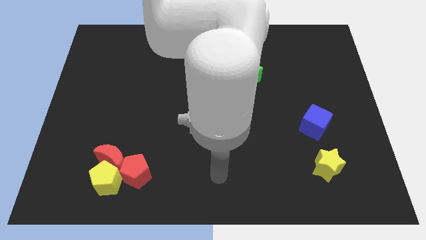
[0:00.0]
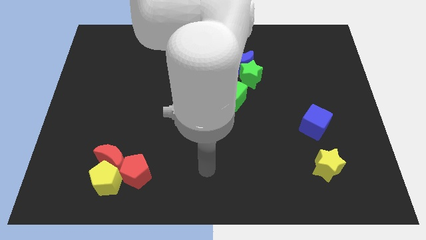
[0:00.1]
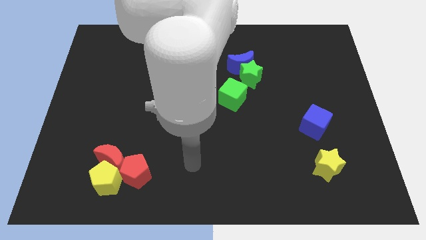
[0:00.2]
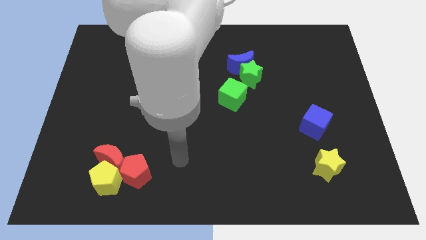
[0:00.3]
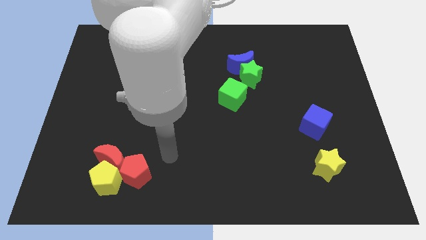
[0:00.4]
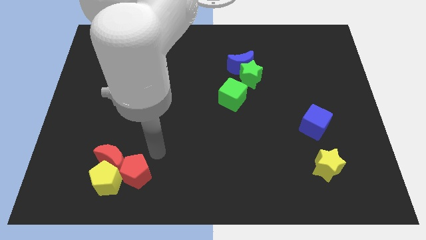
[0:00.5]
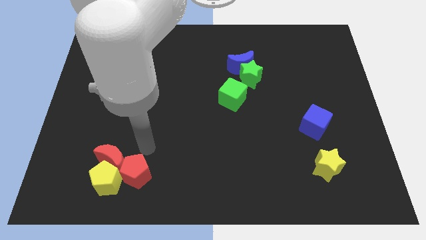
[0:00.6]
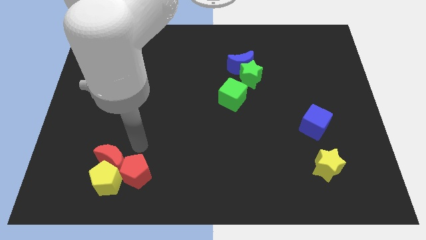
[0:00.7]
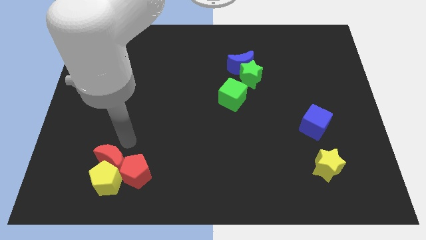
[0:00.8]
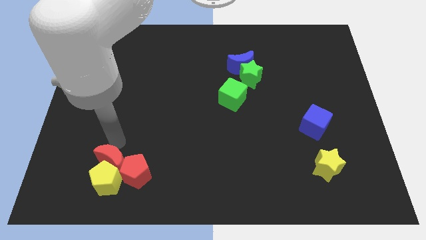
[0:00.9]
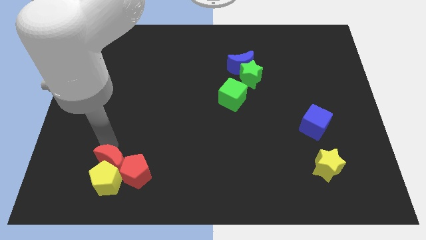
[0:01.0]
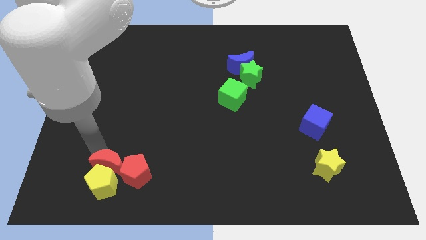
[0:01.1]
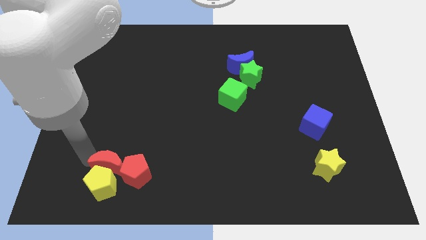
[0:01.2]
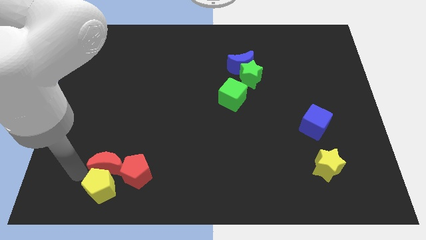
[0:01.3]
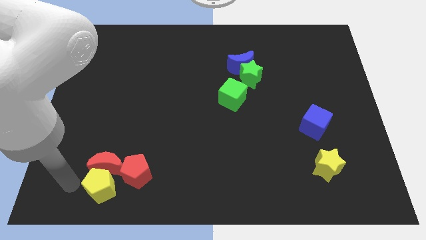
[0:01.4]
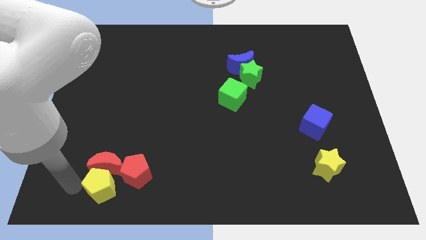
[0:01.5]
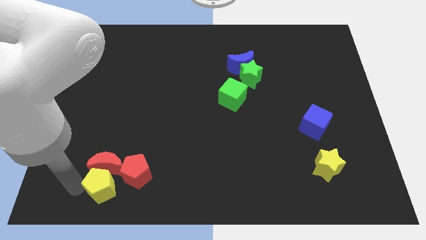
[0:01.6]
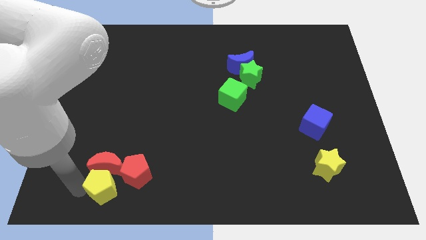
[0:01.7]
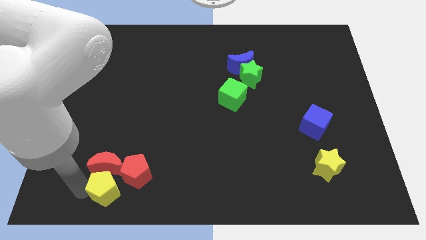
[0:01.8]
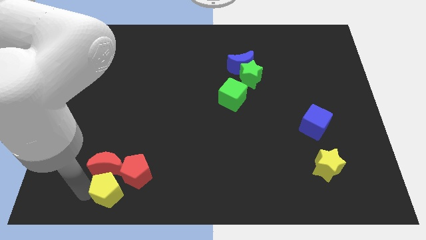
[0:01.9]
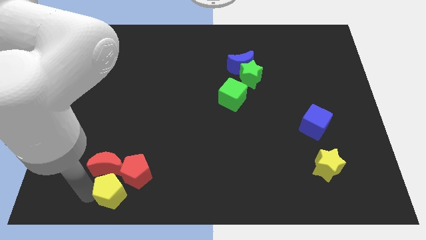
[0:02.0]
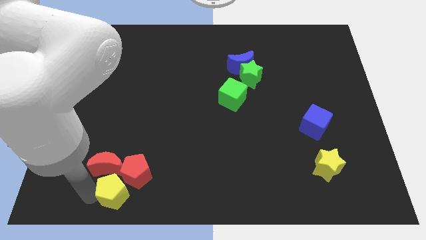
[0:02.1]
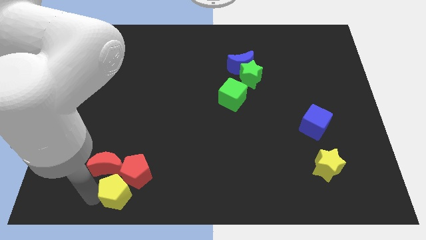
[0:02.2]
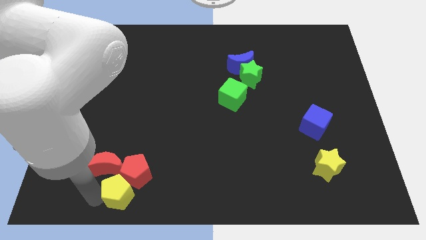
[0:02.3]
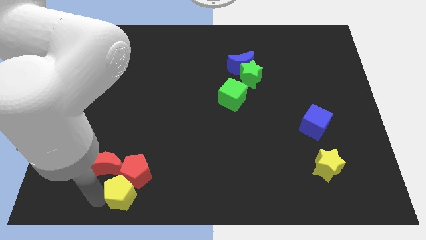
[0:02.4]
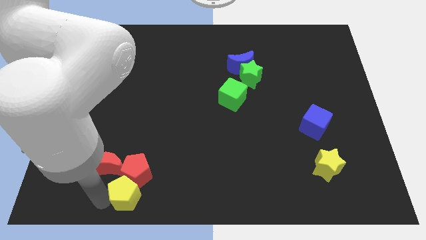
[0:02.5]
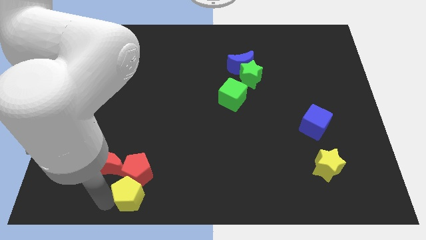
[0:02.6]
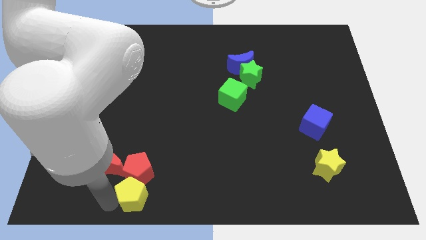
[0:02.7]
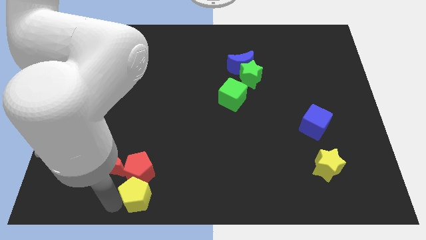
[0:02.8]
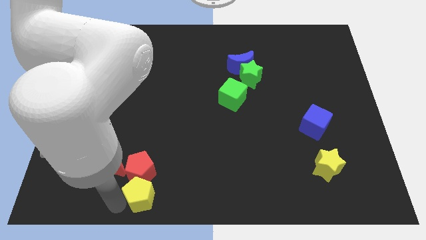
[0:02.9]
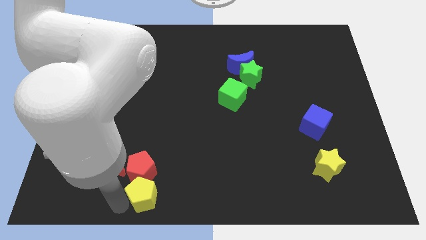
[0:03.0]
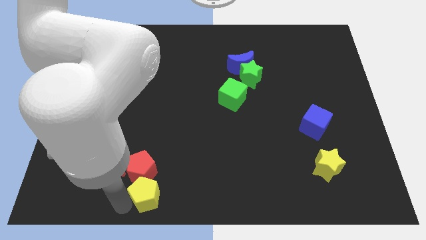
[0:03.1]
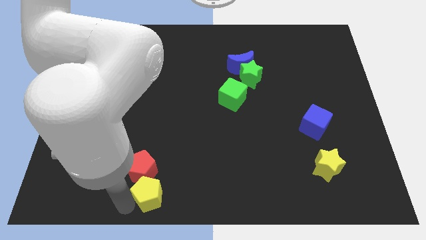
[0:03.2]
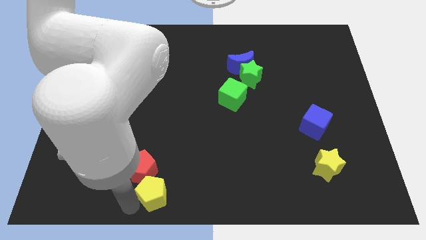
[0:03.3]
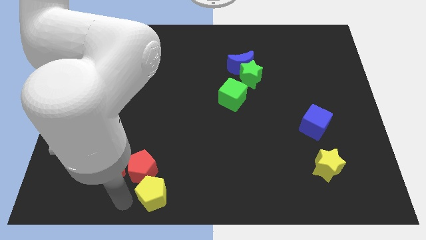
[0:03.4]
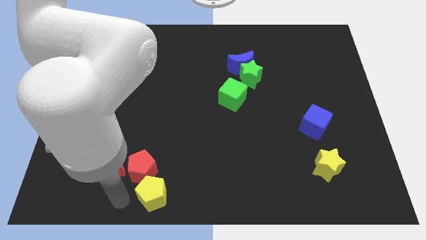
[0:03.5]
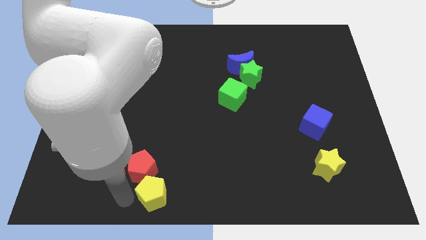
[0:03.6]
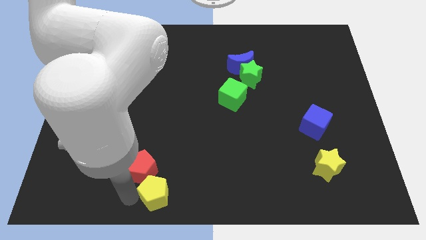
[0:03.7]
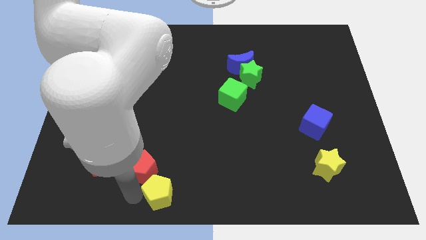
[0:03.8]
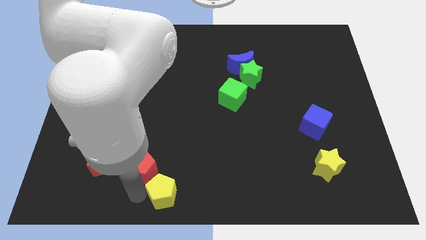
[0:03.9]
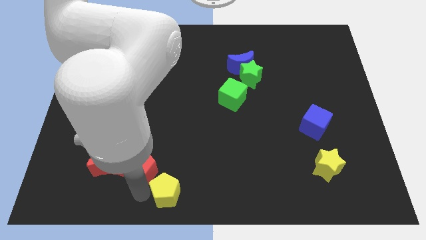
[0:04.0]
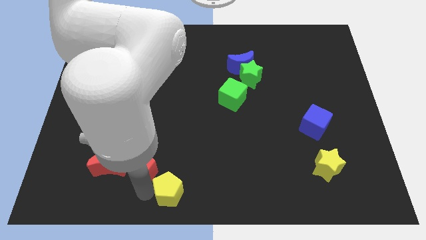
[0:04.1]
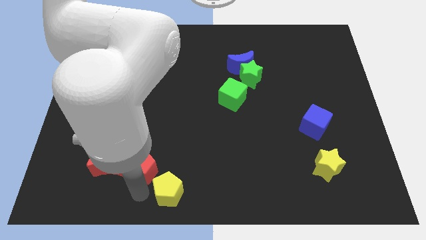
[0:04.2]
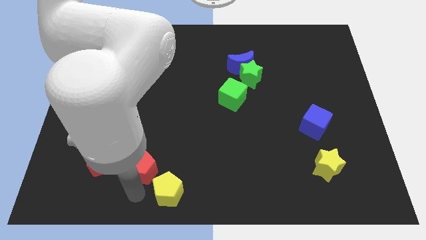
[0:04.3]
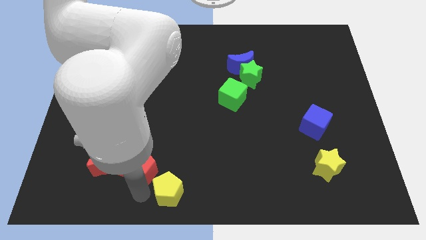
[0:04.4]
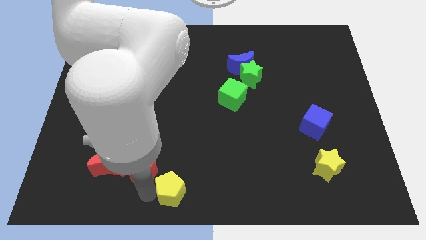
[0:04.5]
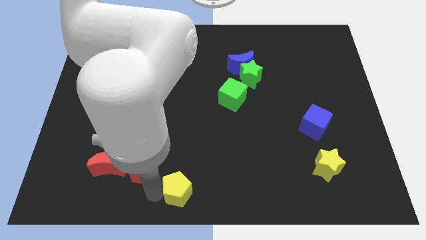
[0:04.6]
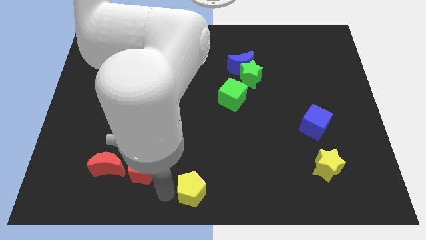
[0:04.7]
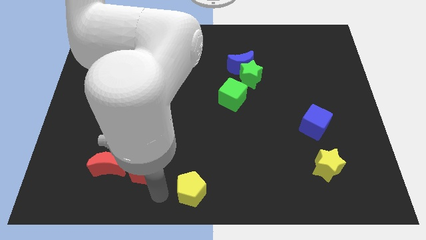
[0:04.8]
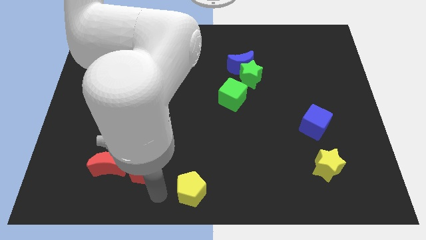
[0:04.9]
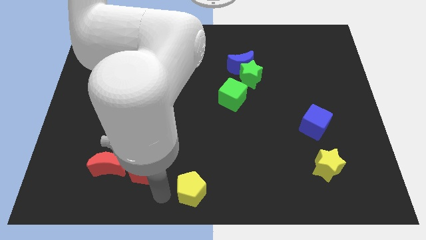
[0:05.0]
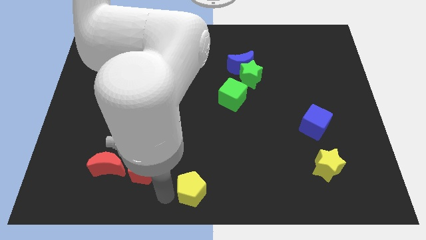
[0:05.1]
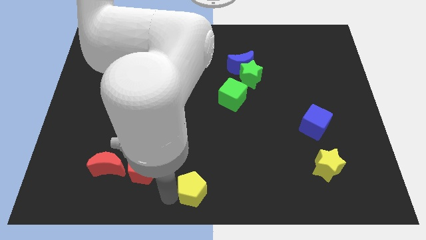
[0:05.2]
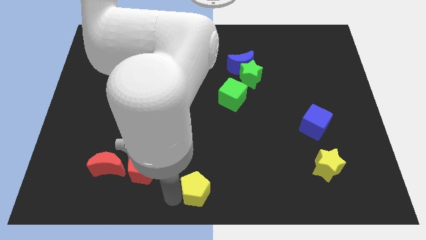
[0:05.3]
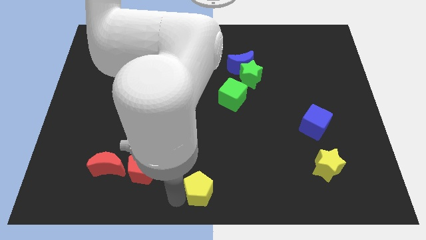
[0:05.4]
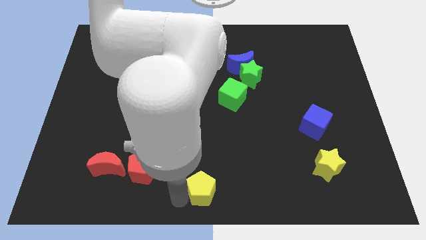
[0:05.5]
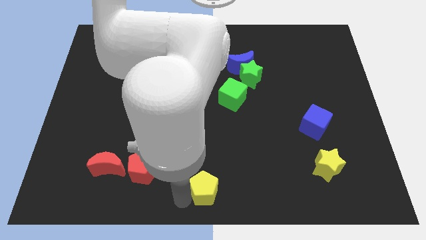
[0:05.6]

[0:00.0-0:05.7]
slide the yellow pentagon to the right

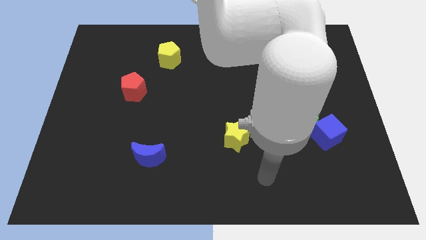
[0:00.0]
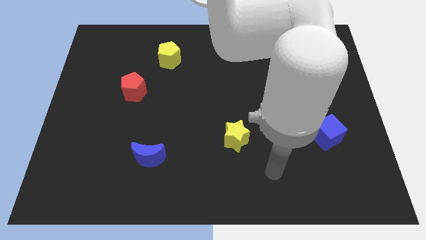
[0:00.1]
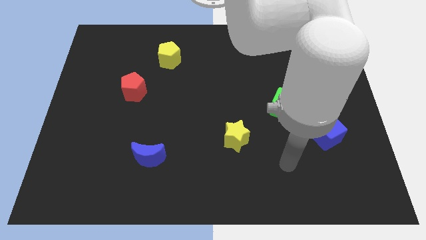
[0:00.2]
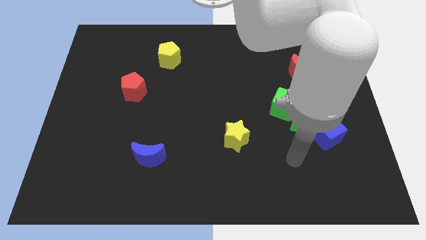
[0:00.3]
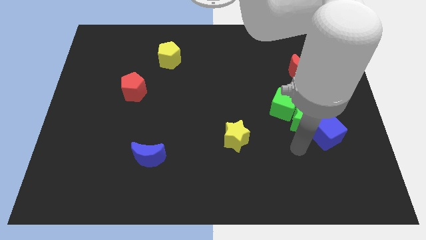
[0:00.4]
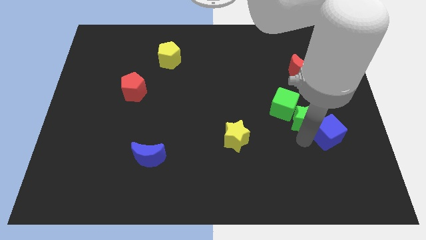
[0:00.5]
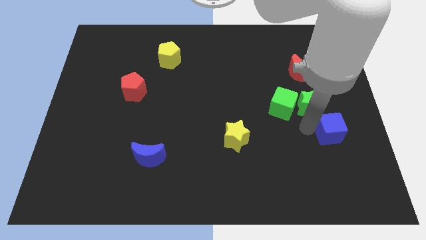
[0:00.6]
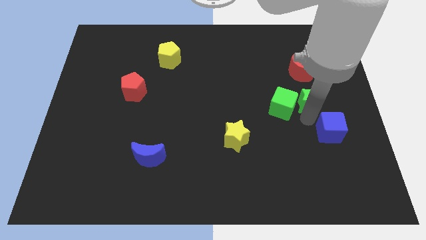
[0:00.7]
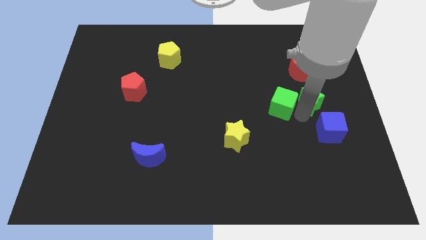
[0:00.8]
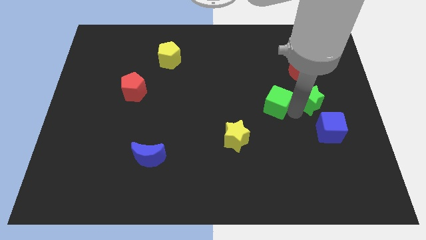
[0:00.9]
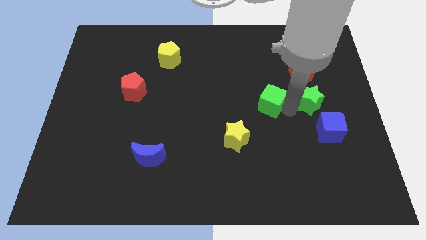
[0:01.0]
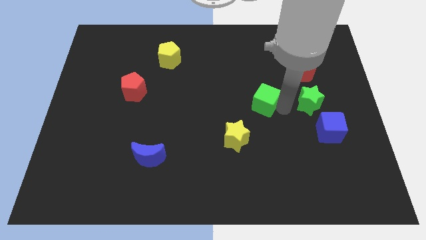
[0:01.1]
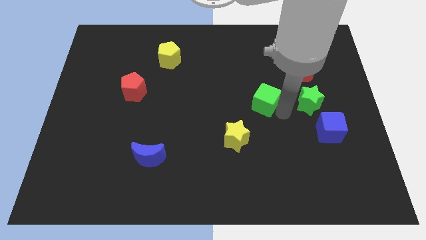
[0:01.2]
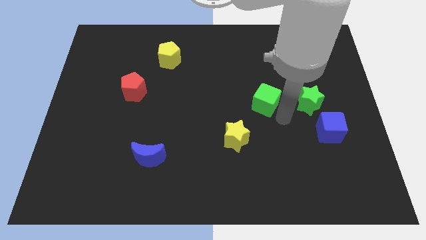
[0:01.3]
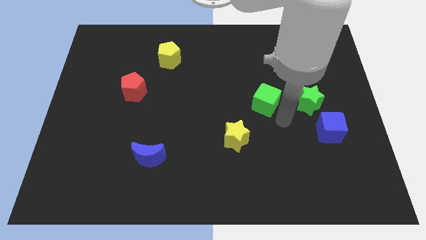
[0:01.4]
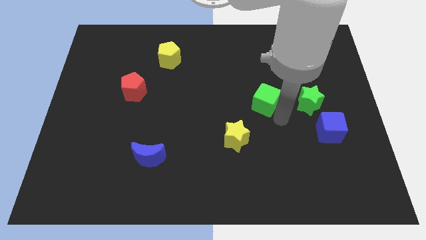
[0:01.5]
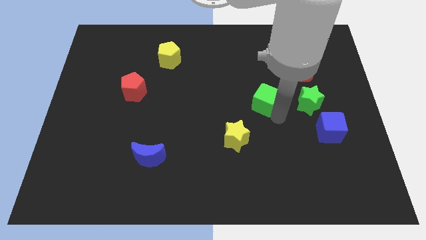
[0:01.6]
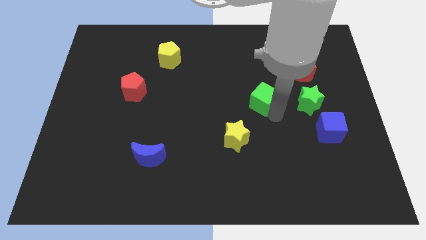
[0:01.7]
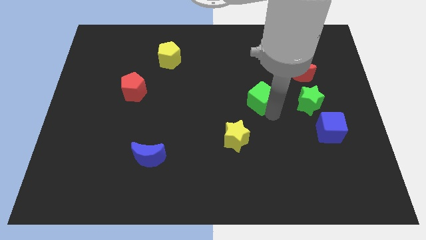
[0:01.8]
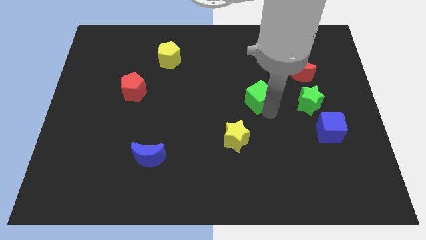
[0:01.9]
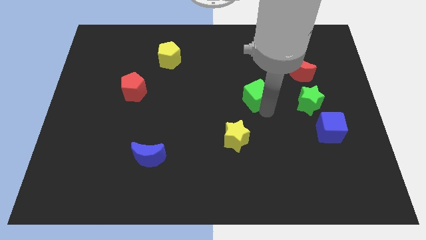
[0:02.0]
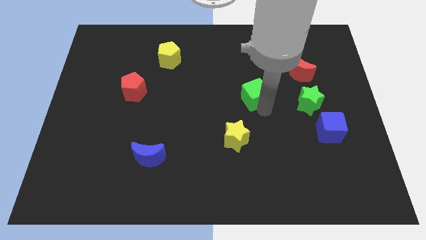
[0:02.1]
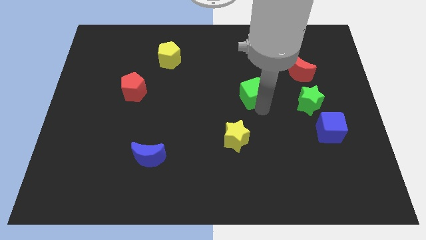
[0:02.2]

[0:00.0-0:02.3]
move the green cube up and then to the left somewhat

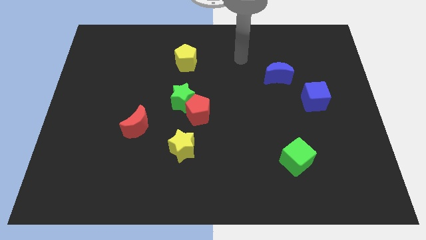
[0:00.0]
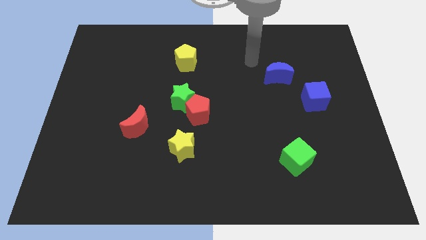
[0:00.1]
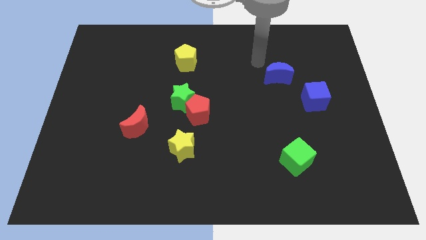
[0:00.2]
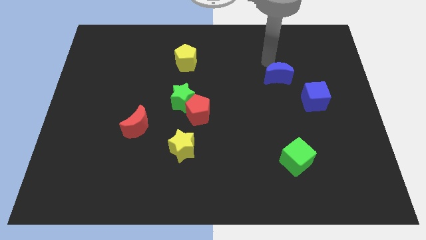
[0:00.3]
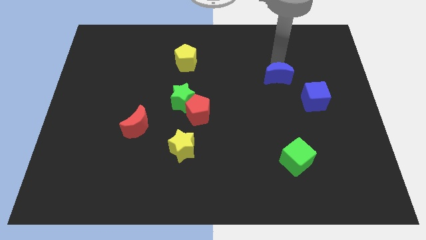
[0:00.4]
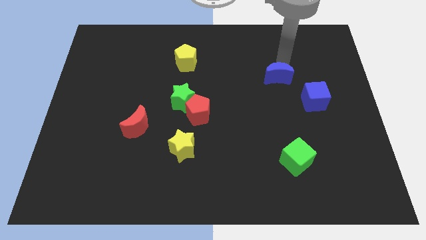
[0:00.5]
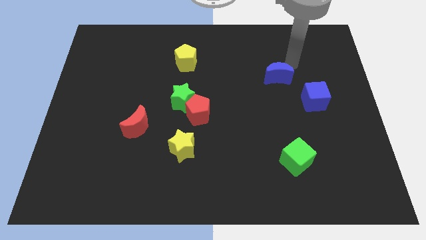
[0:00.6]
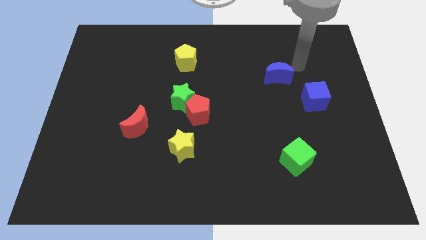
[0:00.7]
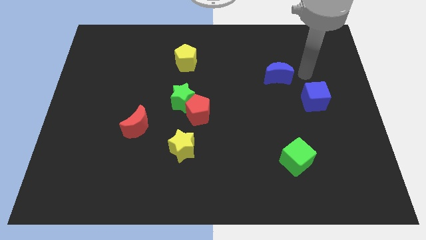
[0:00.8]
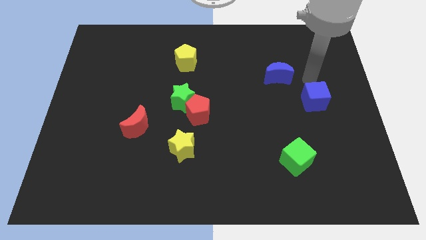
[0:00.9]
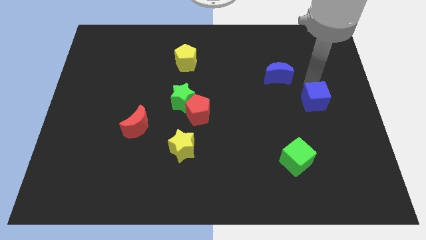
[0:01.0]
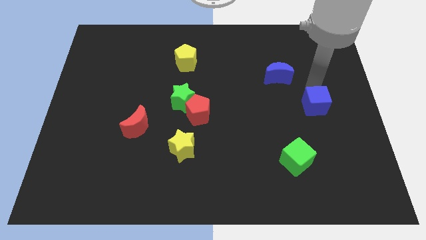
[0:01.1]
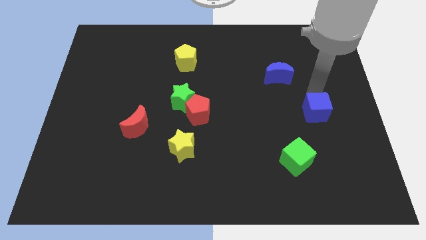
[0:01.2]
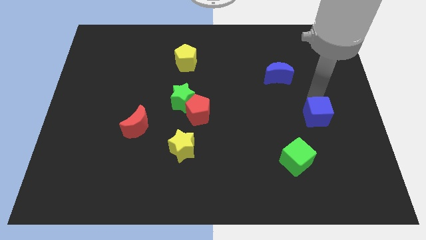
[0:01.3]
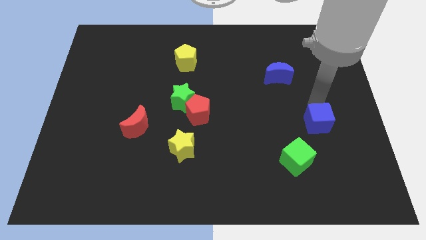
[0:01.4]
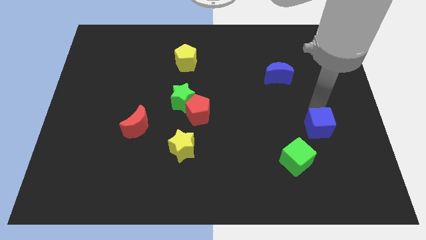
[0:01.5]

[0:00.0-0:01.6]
slide the blue cube a little down
